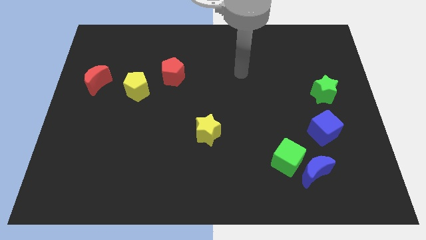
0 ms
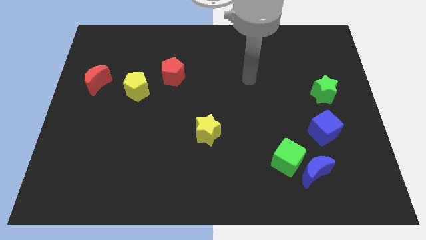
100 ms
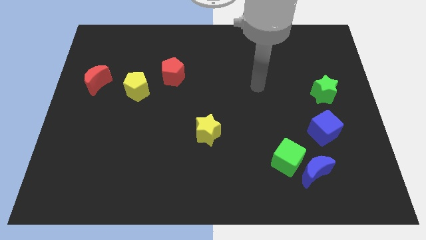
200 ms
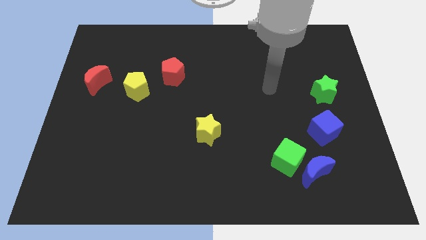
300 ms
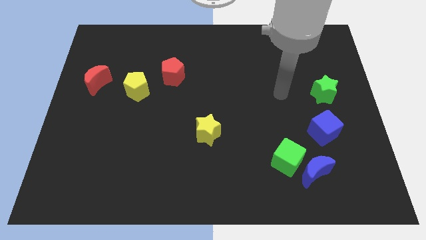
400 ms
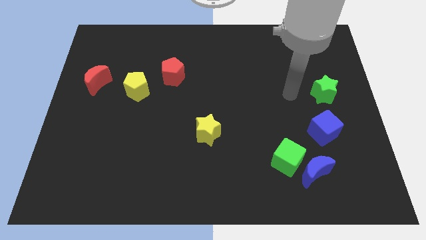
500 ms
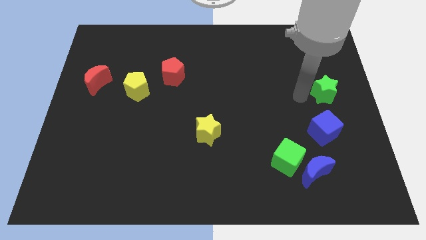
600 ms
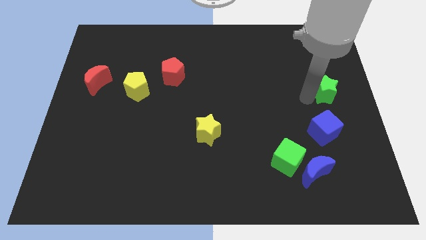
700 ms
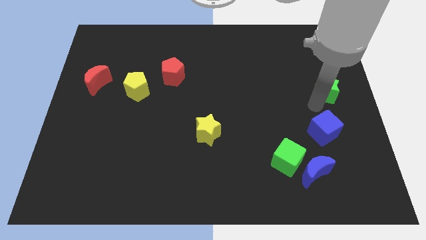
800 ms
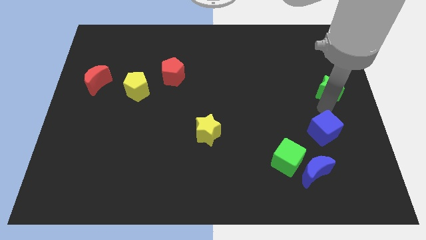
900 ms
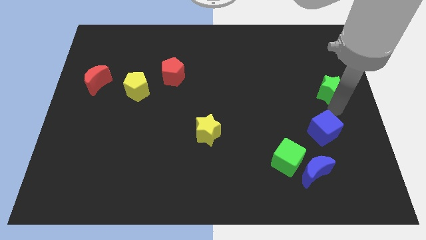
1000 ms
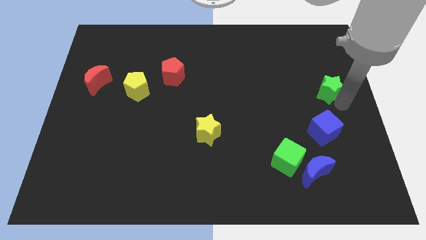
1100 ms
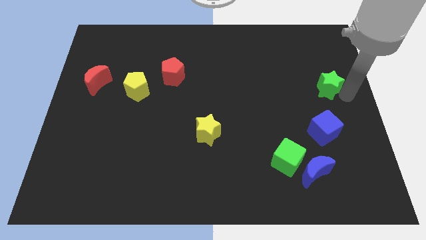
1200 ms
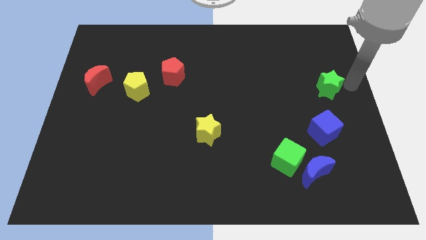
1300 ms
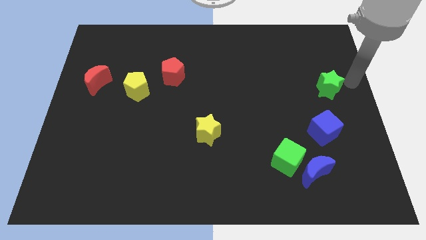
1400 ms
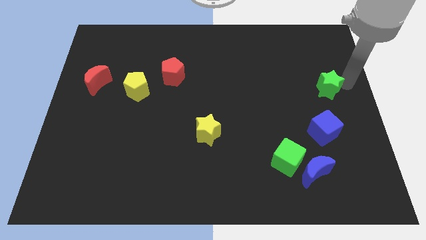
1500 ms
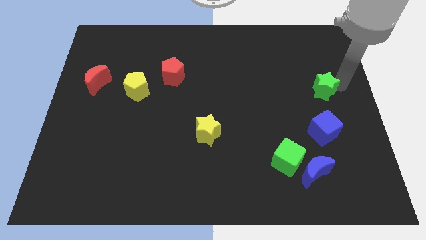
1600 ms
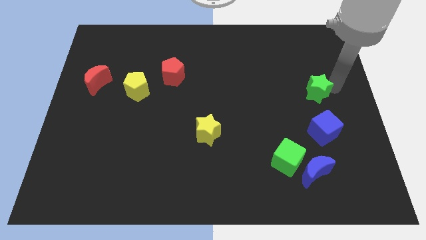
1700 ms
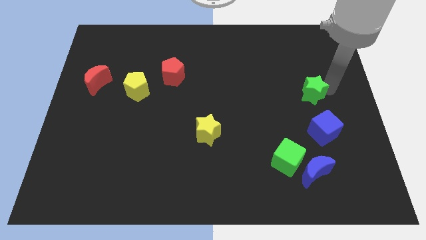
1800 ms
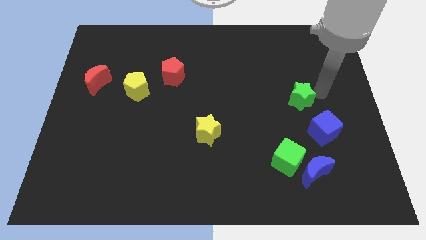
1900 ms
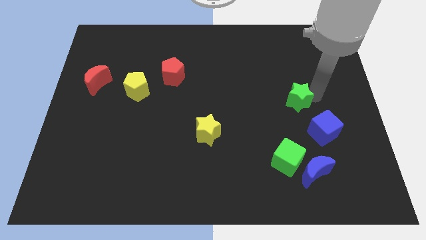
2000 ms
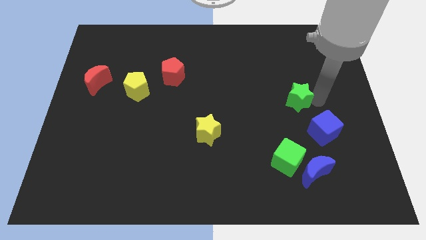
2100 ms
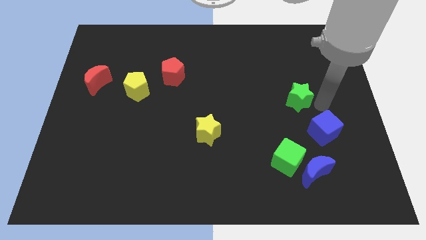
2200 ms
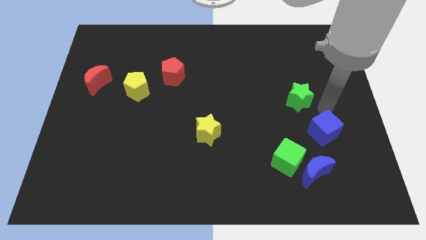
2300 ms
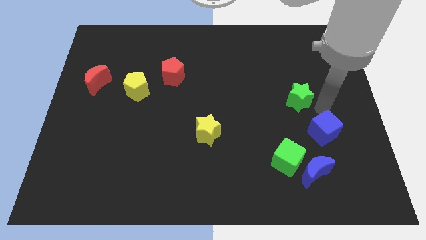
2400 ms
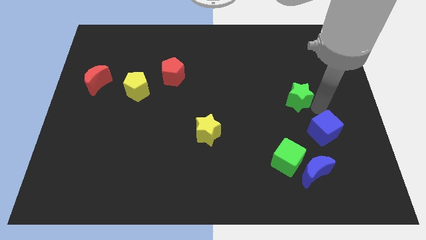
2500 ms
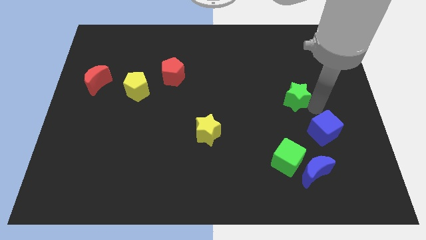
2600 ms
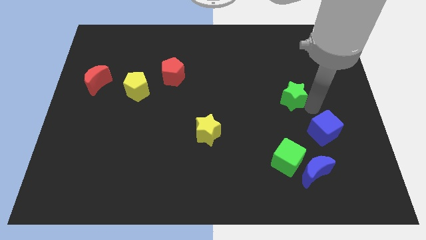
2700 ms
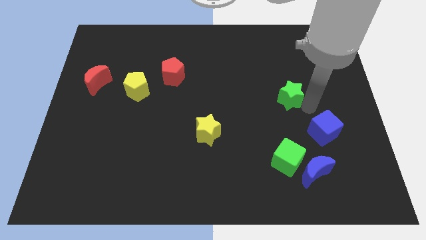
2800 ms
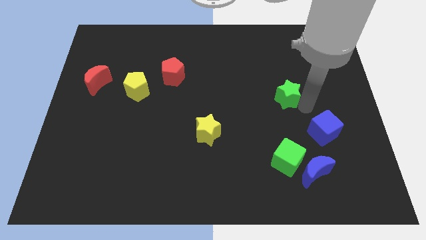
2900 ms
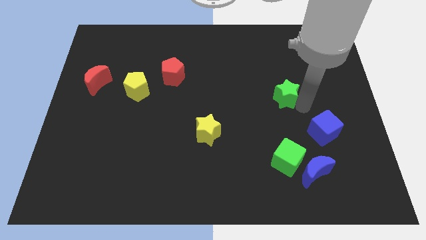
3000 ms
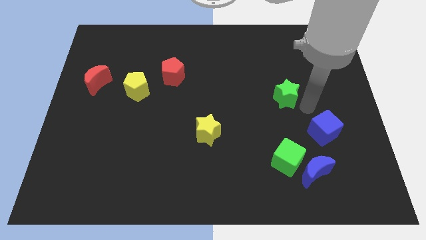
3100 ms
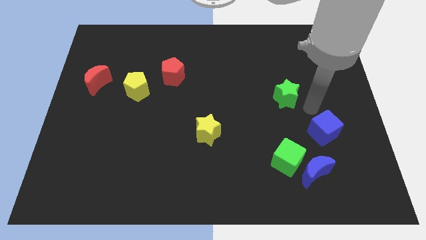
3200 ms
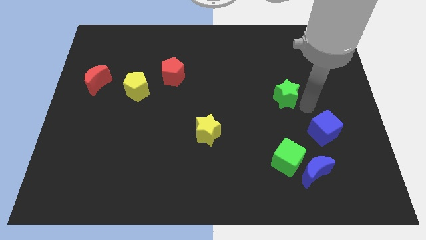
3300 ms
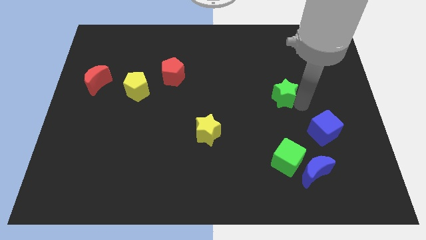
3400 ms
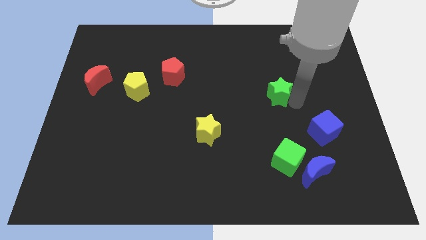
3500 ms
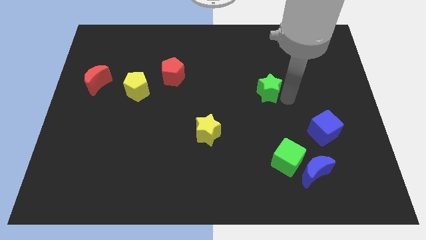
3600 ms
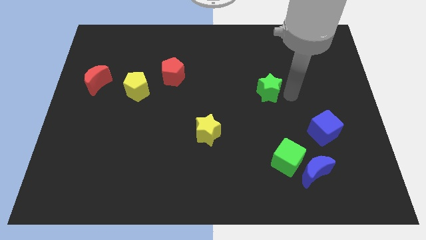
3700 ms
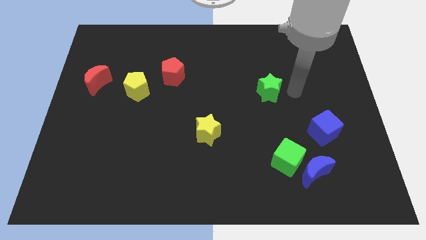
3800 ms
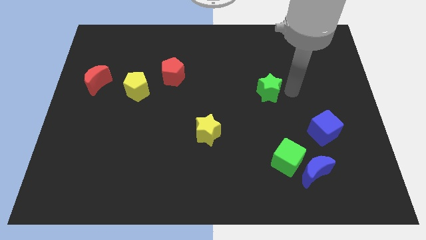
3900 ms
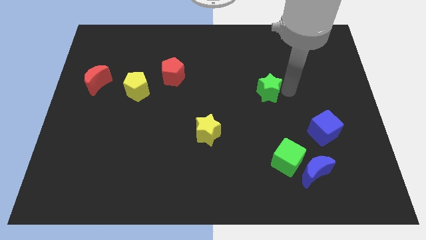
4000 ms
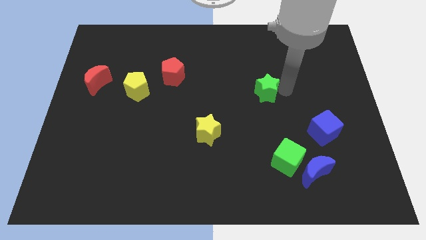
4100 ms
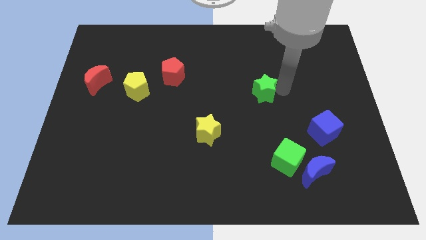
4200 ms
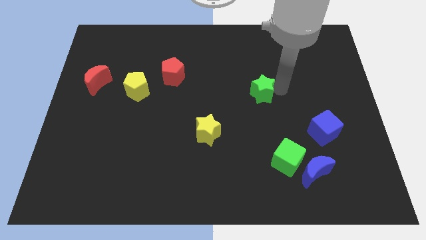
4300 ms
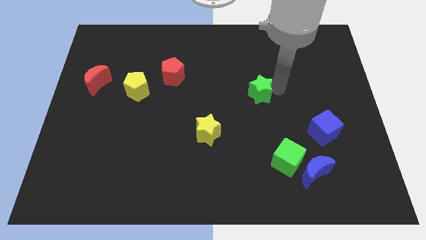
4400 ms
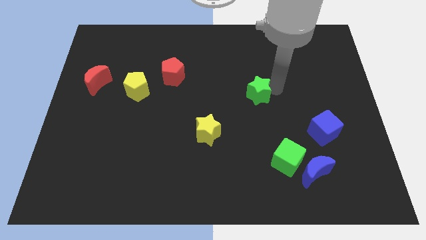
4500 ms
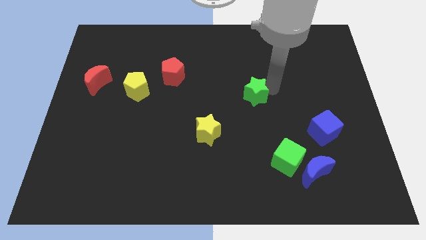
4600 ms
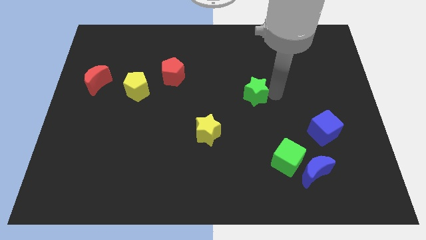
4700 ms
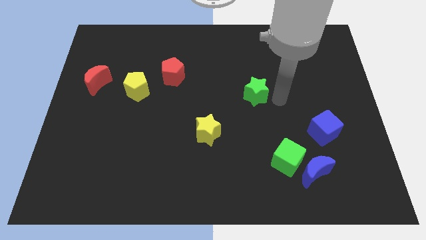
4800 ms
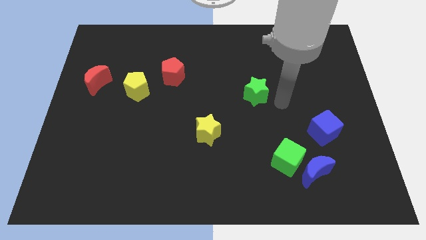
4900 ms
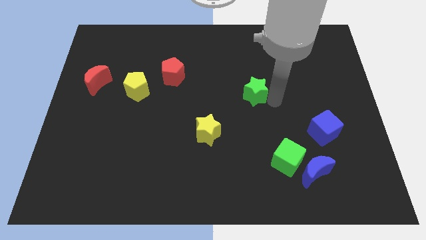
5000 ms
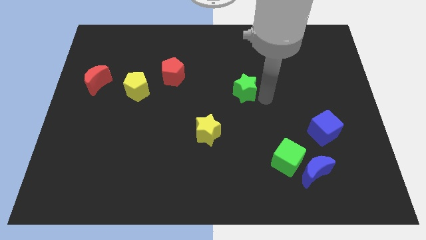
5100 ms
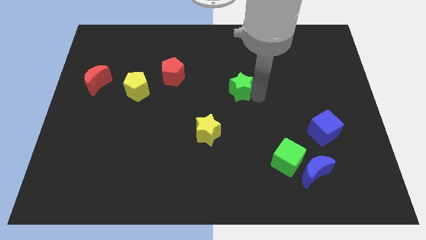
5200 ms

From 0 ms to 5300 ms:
push the green star left

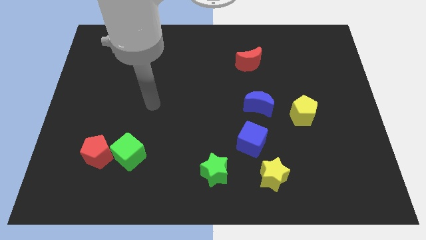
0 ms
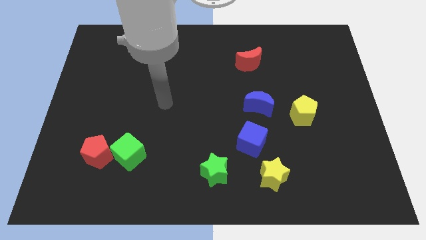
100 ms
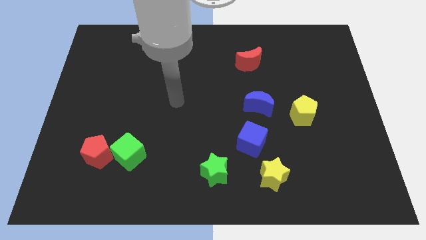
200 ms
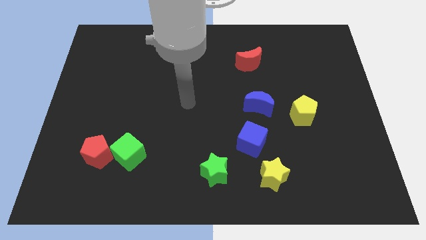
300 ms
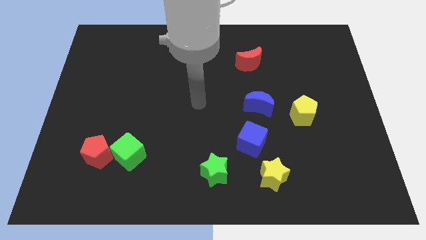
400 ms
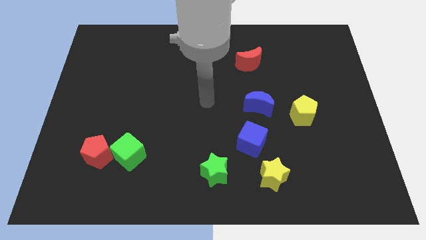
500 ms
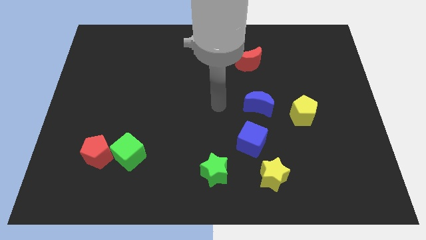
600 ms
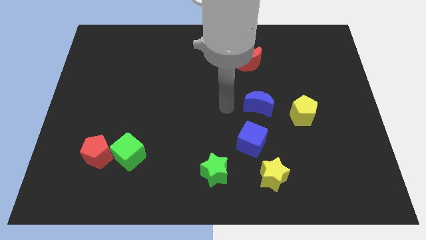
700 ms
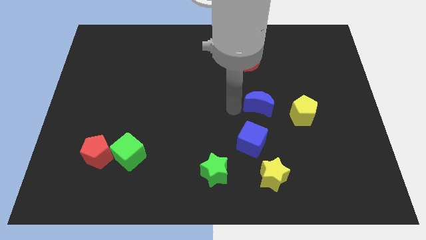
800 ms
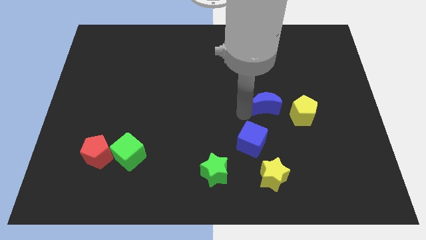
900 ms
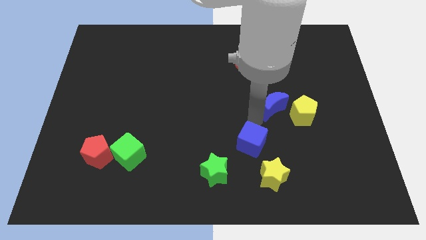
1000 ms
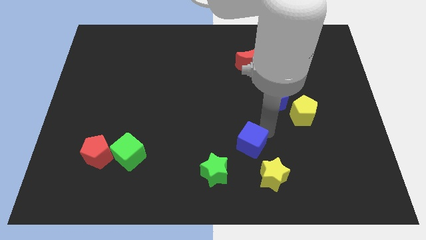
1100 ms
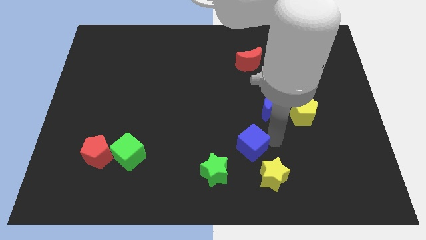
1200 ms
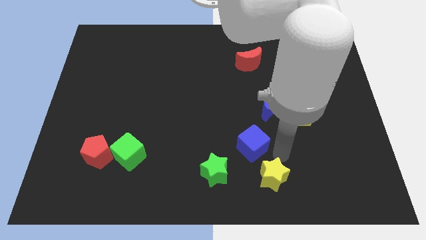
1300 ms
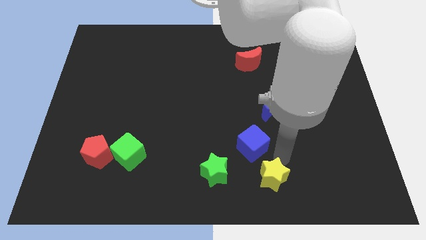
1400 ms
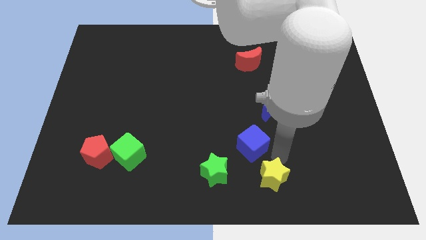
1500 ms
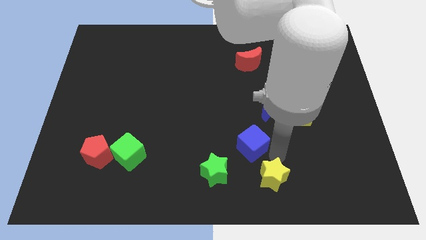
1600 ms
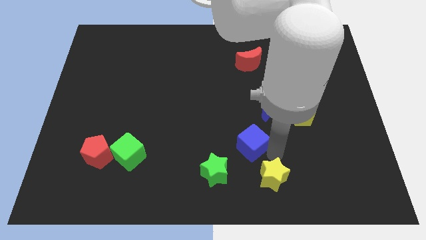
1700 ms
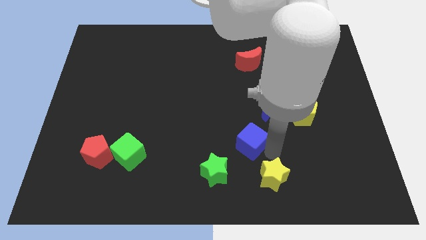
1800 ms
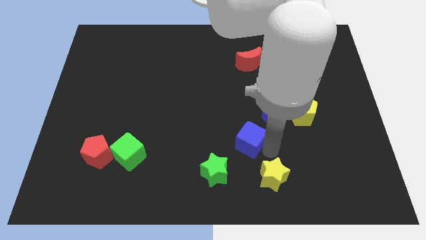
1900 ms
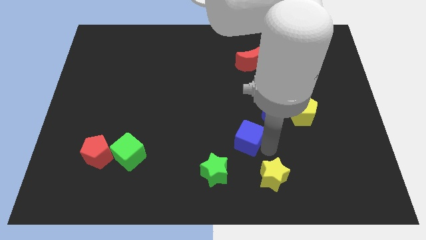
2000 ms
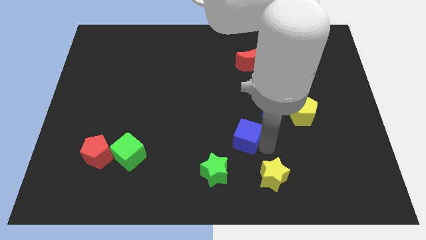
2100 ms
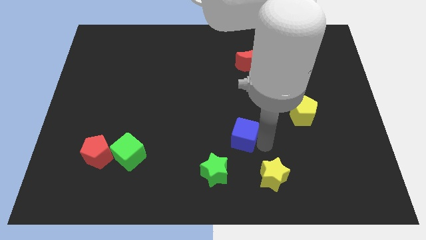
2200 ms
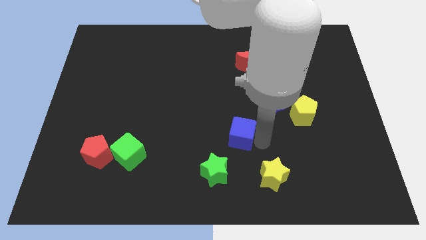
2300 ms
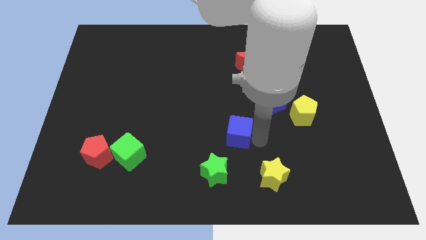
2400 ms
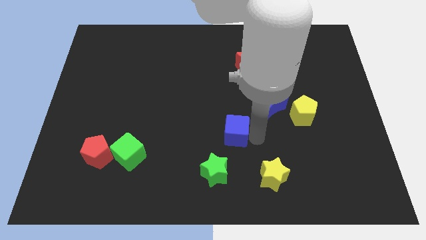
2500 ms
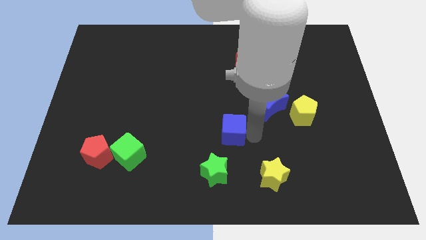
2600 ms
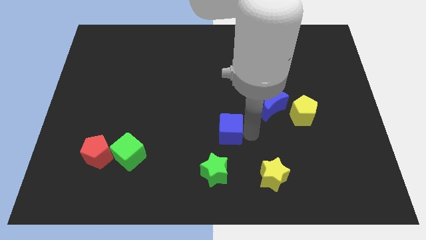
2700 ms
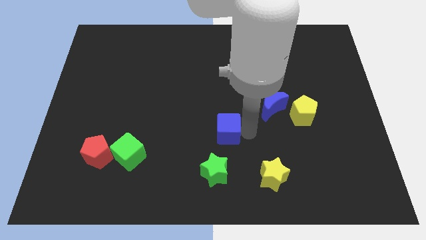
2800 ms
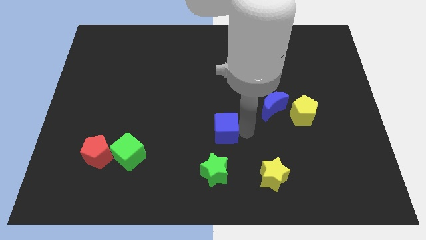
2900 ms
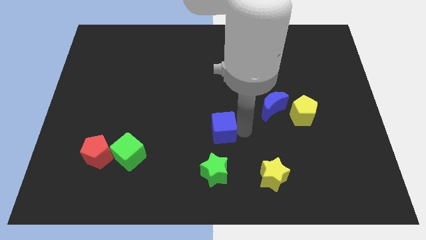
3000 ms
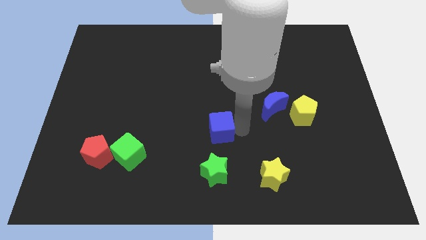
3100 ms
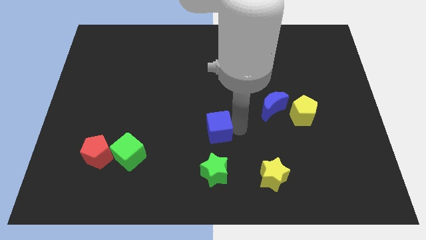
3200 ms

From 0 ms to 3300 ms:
slightly slide the blue cube left
